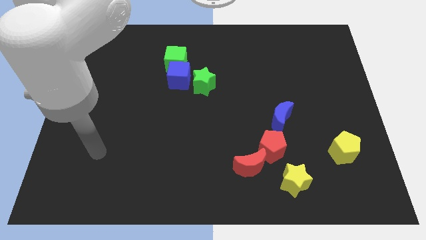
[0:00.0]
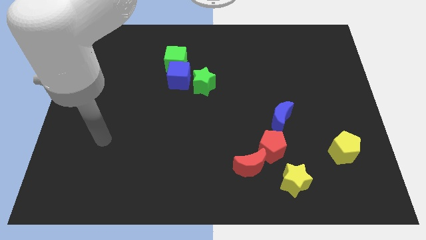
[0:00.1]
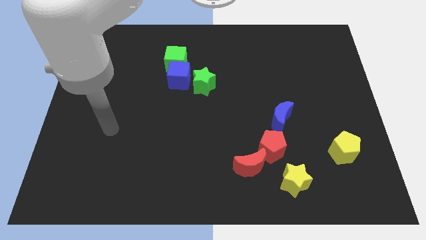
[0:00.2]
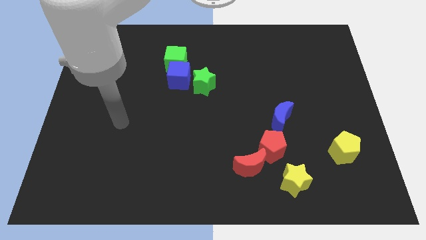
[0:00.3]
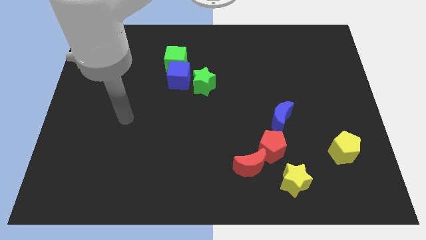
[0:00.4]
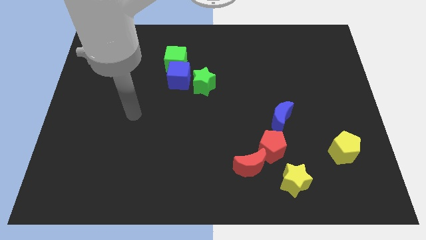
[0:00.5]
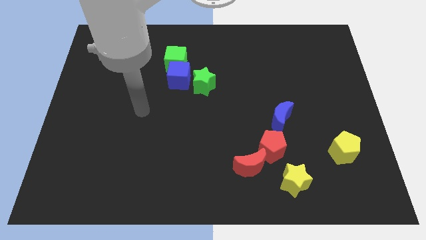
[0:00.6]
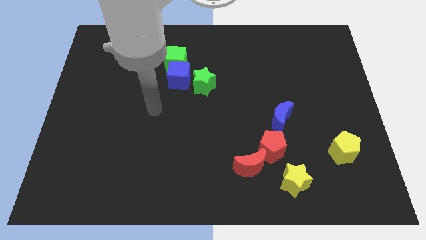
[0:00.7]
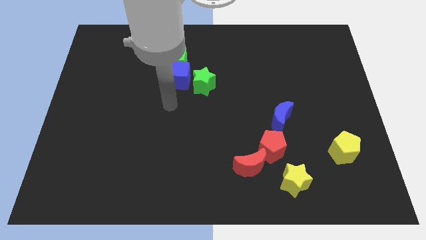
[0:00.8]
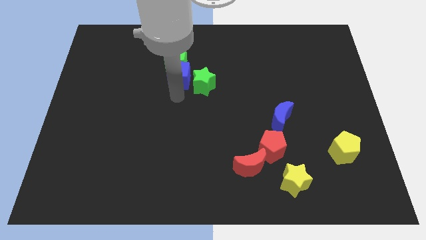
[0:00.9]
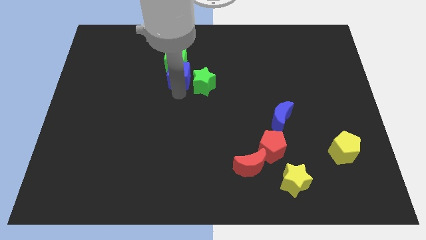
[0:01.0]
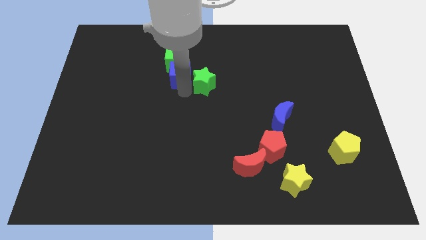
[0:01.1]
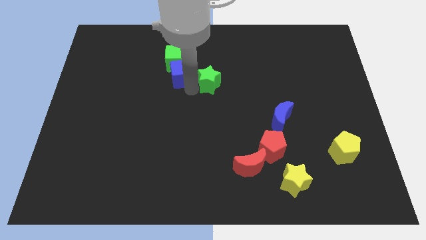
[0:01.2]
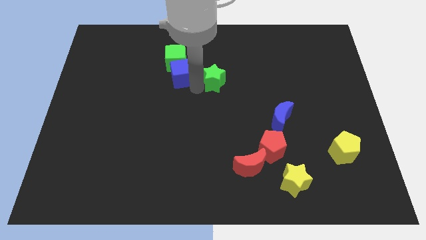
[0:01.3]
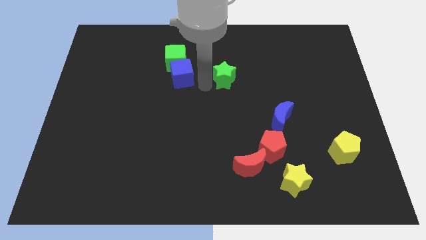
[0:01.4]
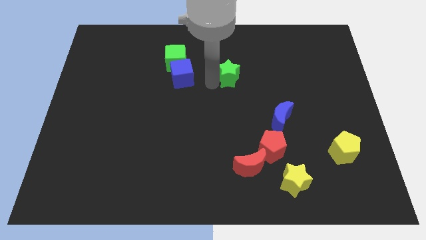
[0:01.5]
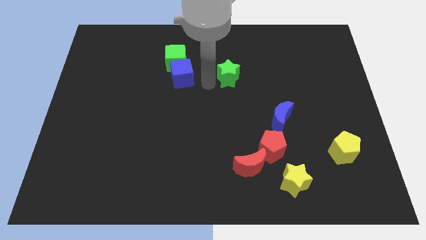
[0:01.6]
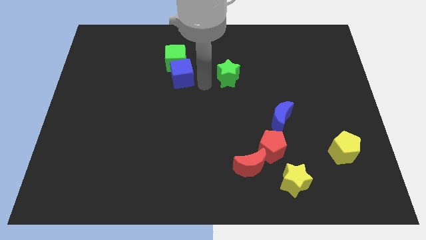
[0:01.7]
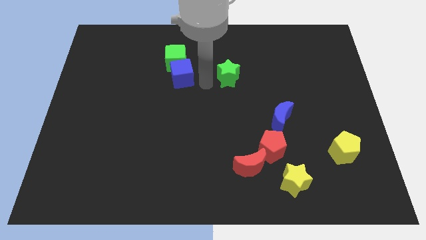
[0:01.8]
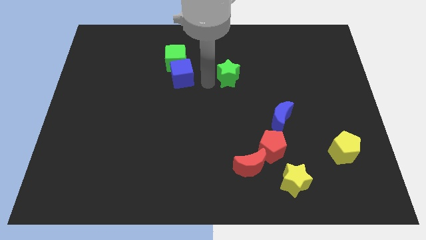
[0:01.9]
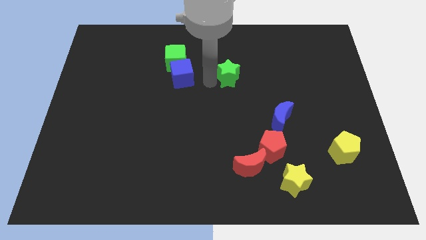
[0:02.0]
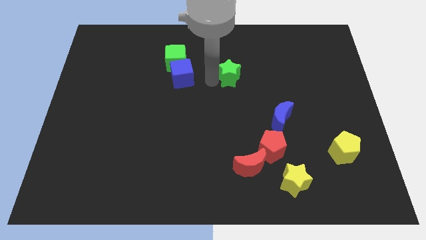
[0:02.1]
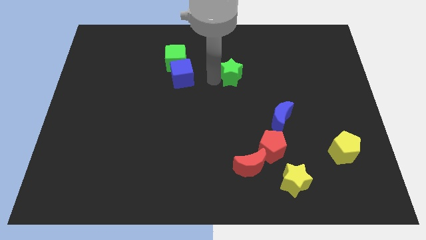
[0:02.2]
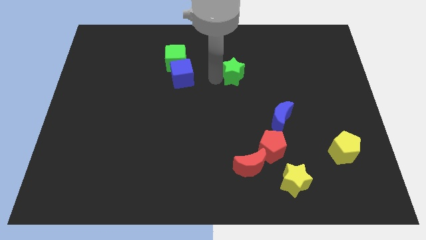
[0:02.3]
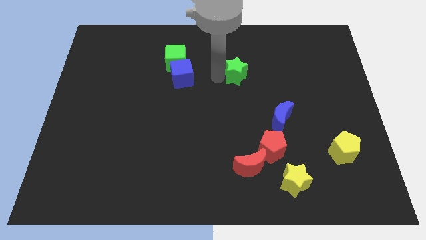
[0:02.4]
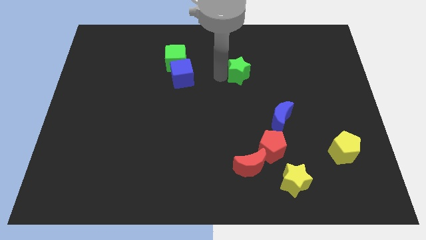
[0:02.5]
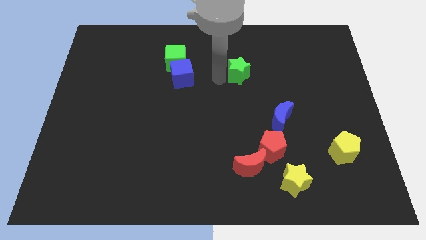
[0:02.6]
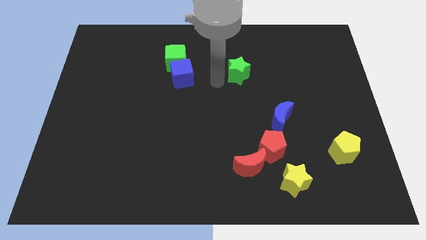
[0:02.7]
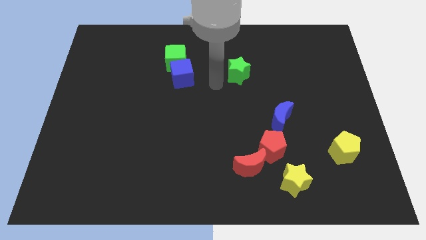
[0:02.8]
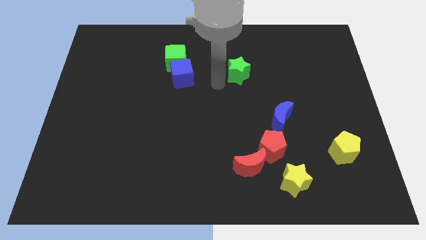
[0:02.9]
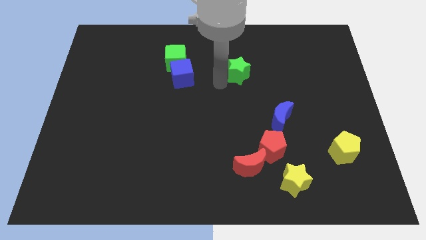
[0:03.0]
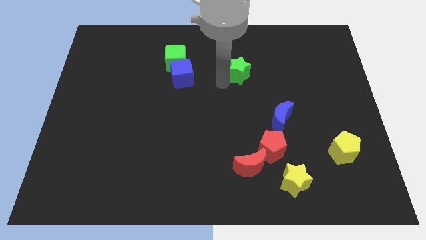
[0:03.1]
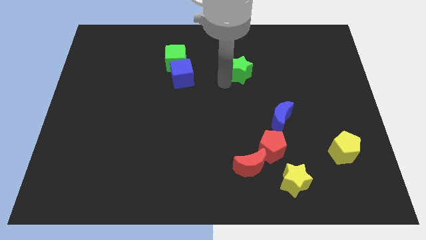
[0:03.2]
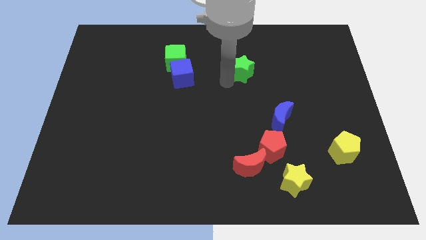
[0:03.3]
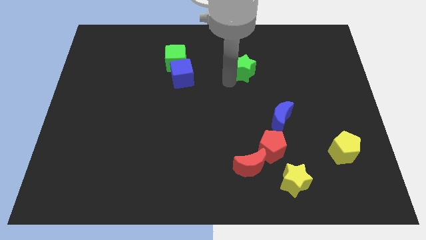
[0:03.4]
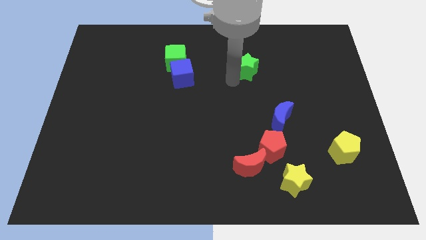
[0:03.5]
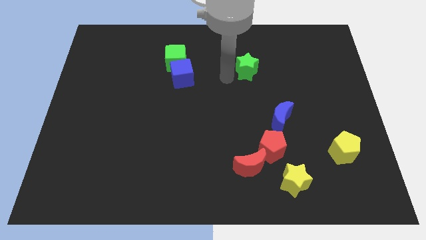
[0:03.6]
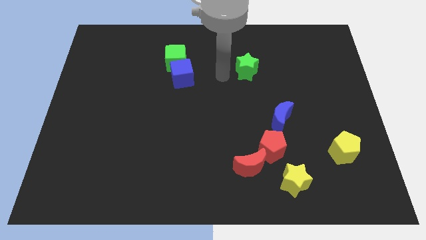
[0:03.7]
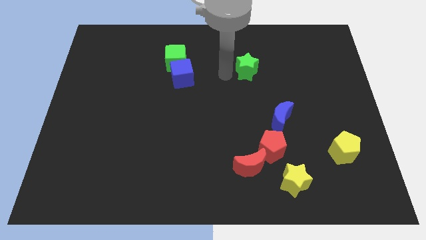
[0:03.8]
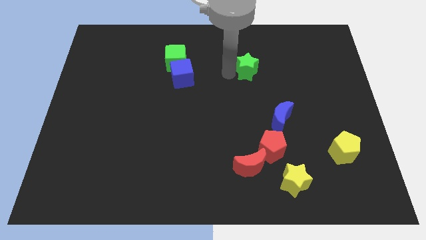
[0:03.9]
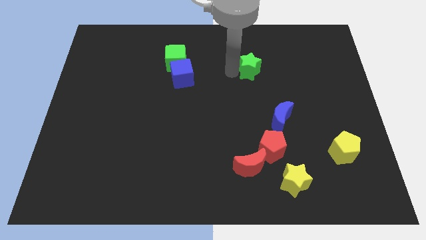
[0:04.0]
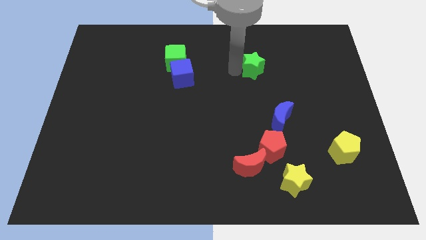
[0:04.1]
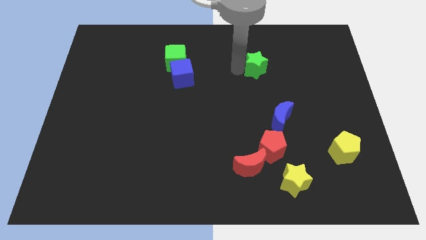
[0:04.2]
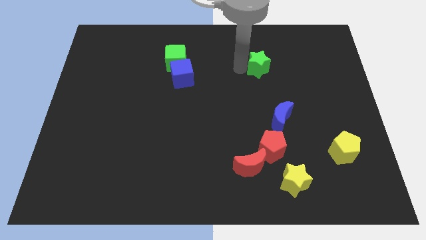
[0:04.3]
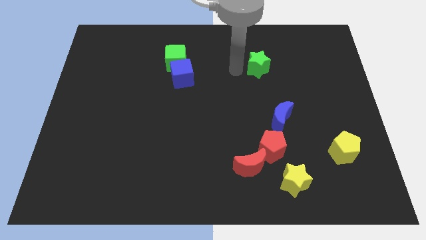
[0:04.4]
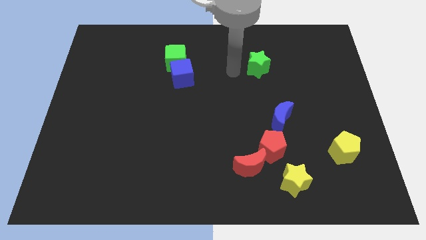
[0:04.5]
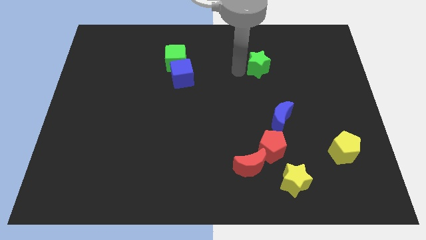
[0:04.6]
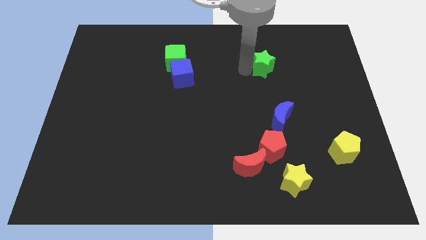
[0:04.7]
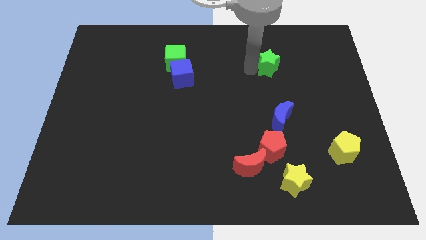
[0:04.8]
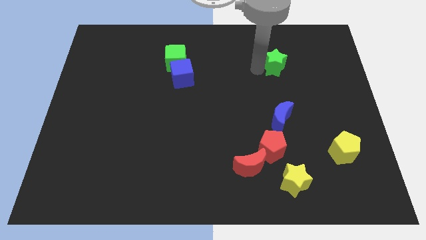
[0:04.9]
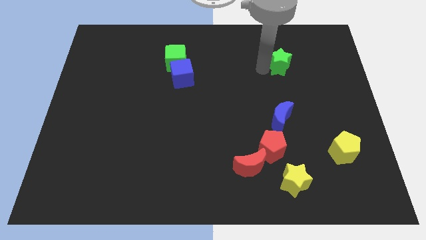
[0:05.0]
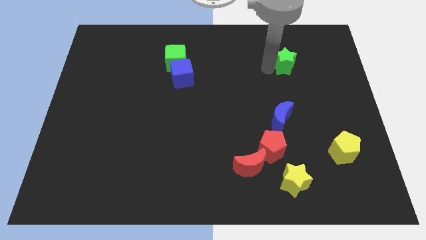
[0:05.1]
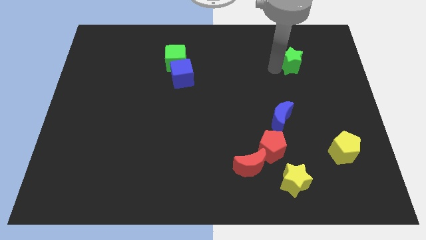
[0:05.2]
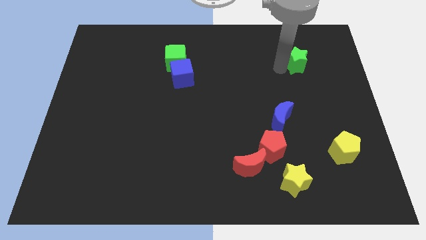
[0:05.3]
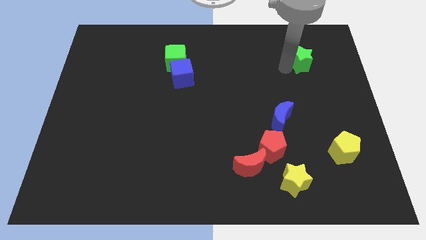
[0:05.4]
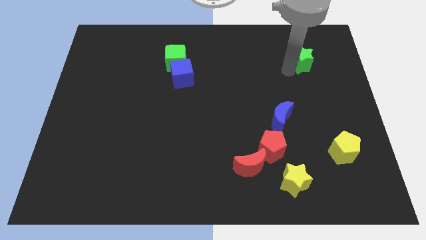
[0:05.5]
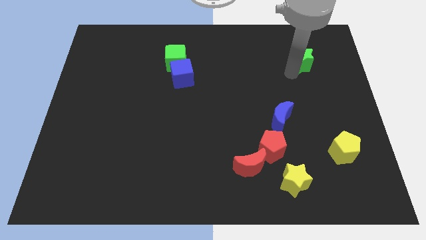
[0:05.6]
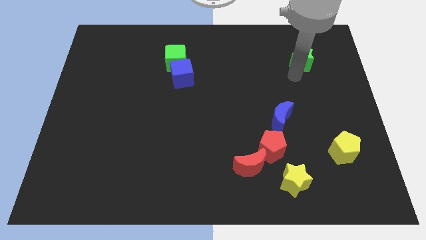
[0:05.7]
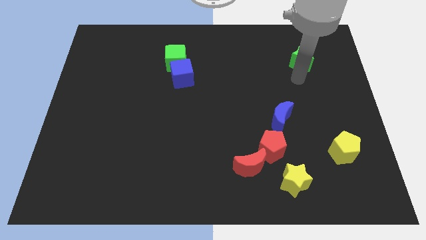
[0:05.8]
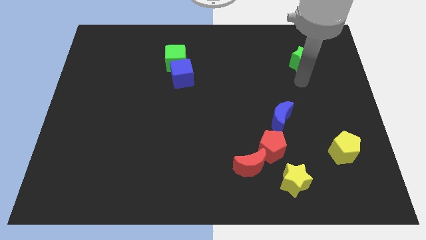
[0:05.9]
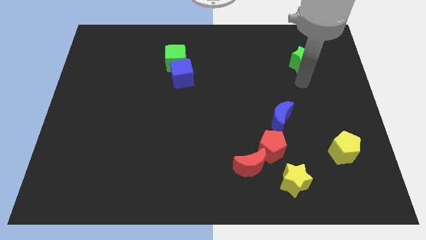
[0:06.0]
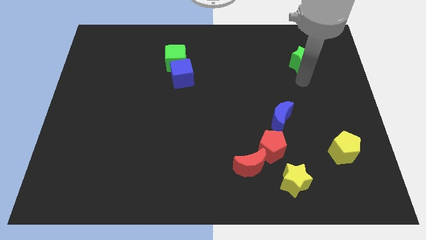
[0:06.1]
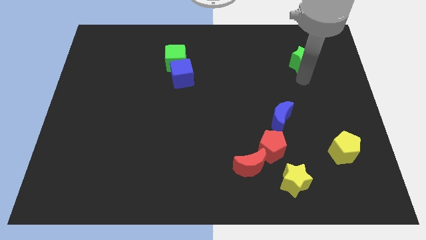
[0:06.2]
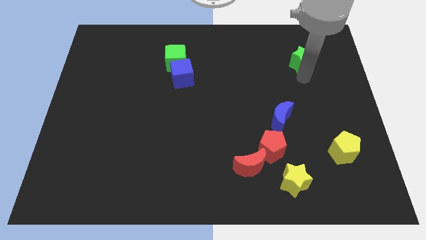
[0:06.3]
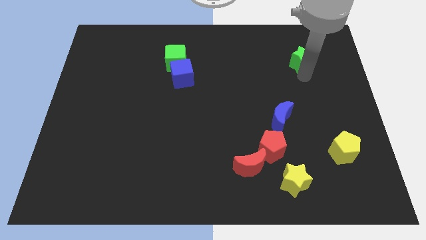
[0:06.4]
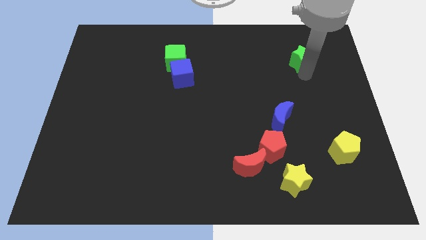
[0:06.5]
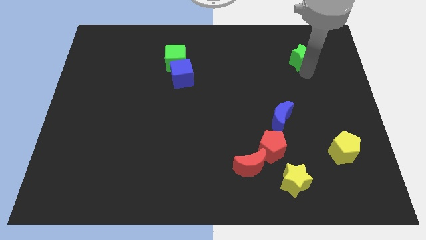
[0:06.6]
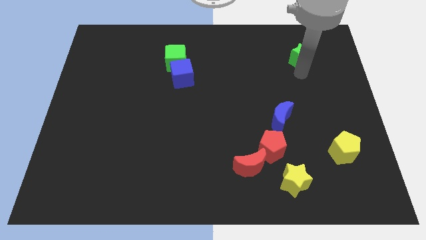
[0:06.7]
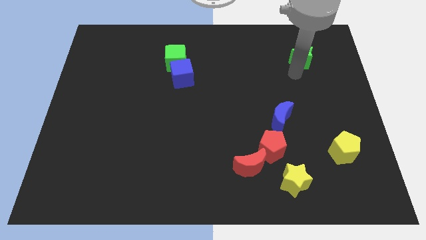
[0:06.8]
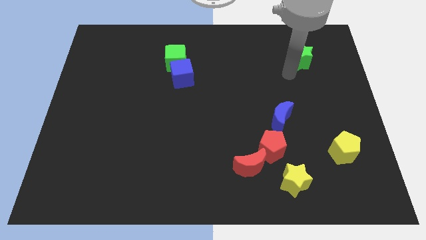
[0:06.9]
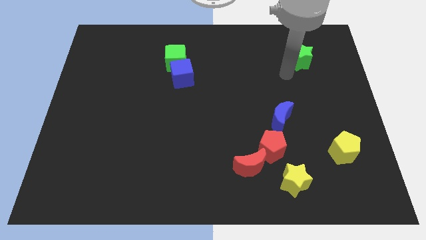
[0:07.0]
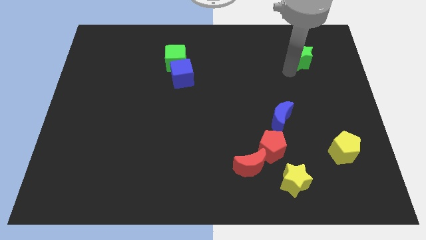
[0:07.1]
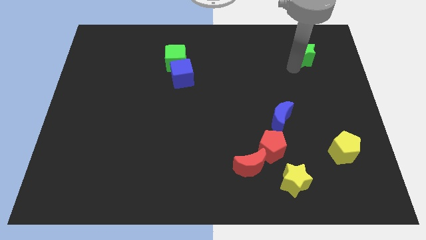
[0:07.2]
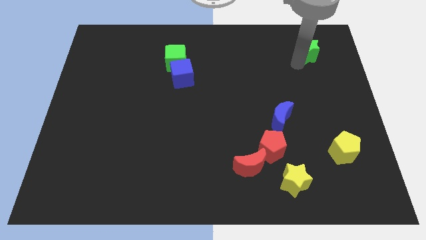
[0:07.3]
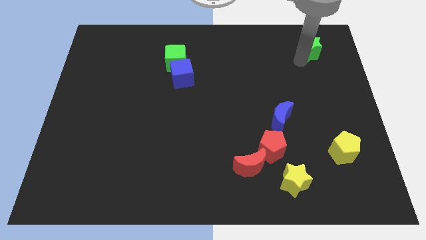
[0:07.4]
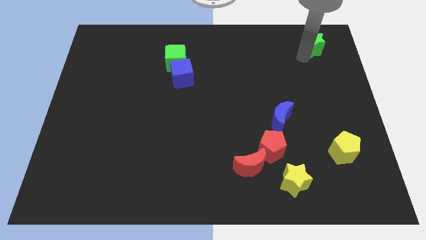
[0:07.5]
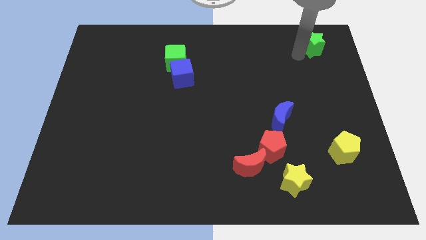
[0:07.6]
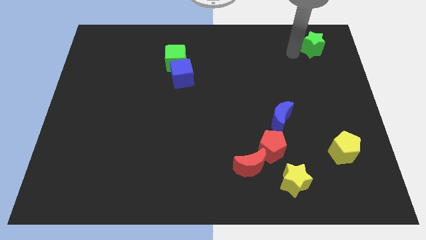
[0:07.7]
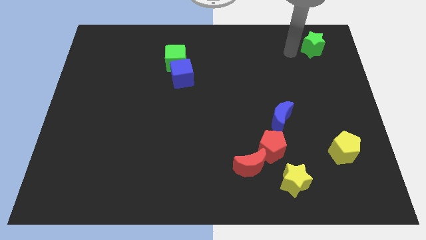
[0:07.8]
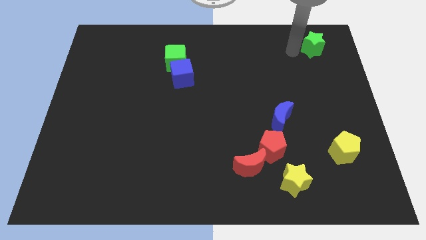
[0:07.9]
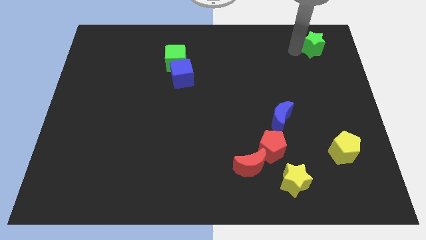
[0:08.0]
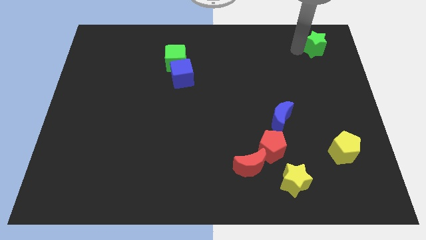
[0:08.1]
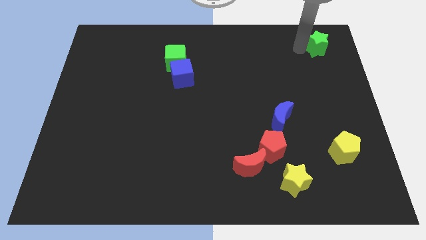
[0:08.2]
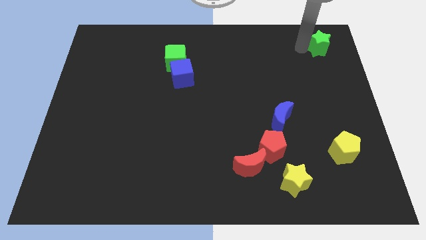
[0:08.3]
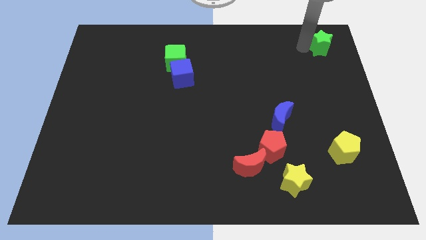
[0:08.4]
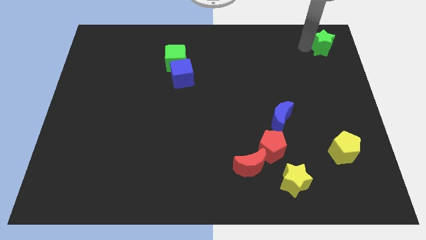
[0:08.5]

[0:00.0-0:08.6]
slide the green star to the upper right corner
